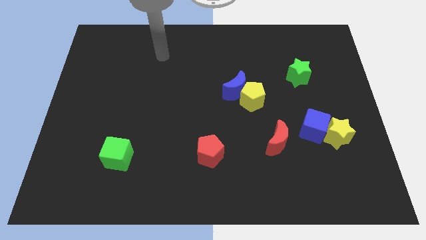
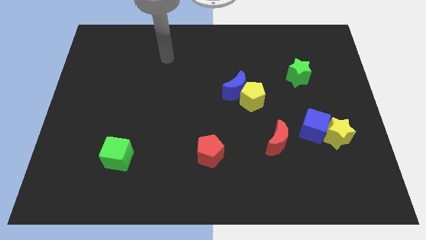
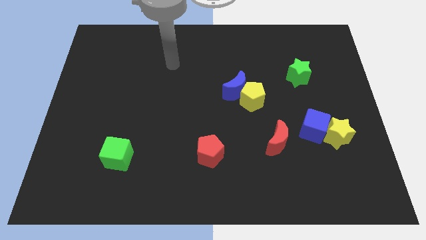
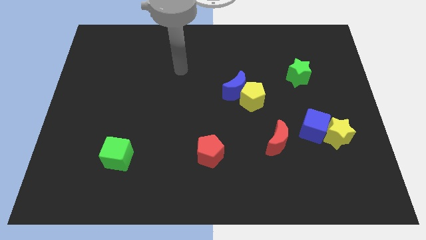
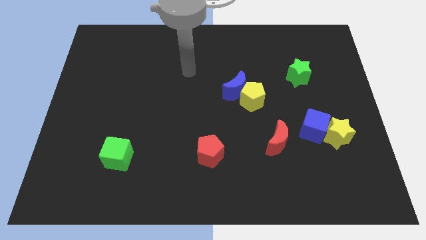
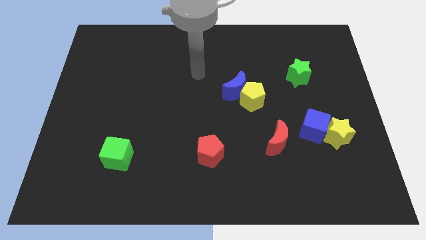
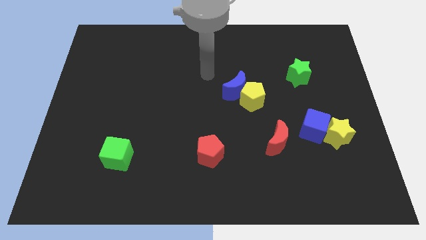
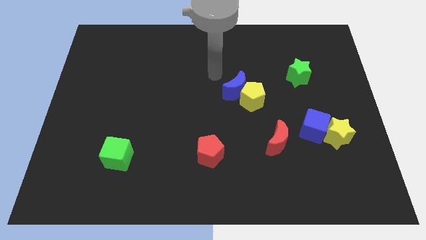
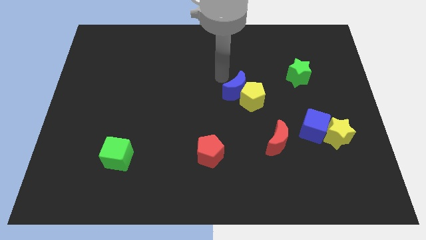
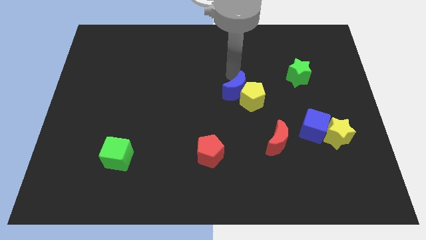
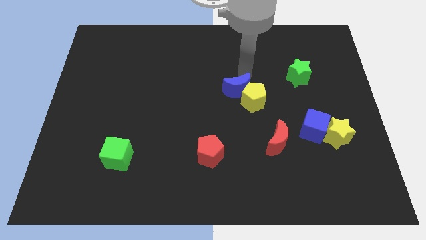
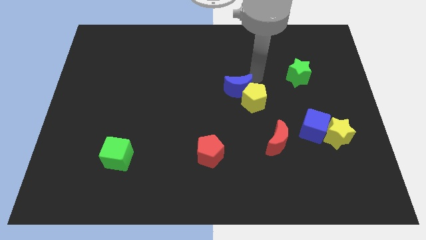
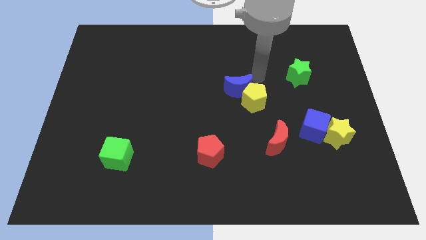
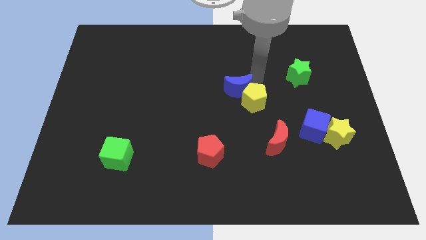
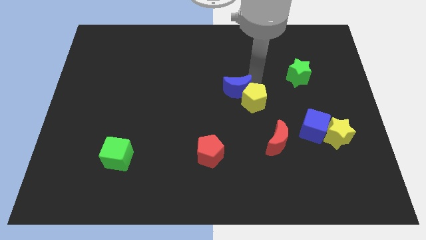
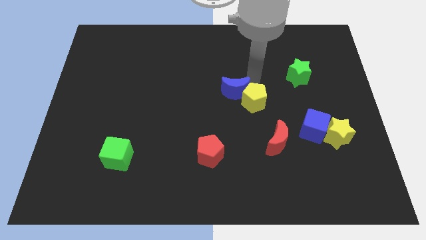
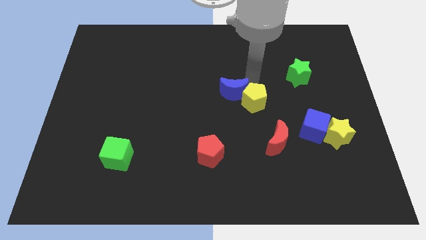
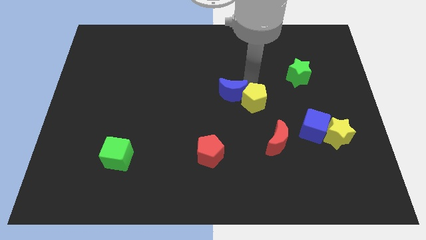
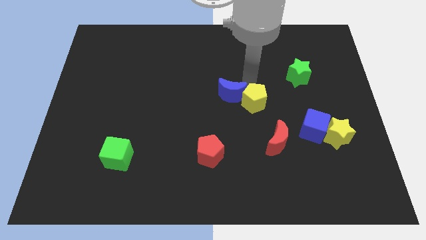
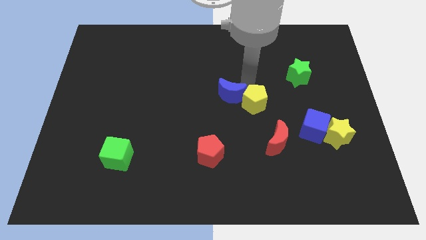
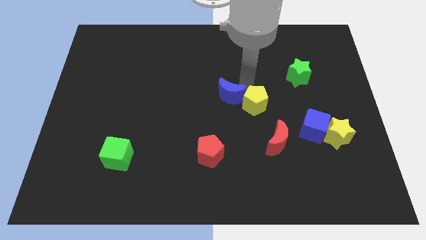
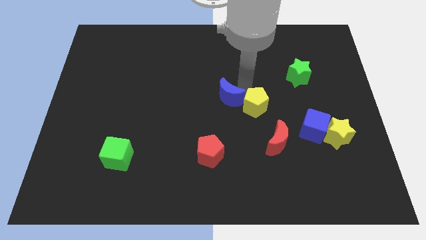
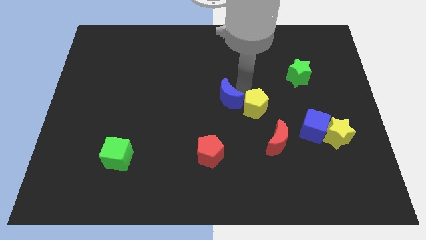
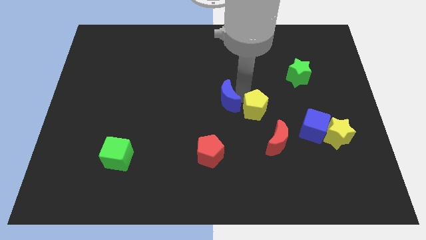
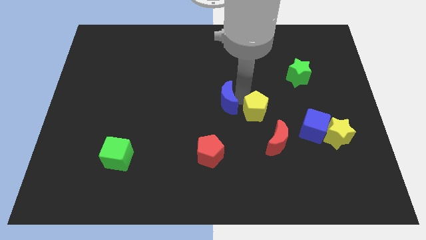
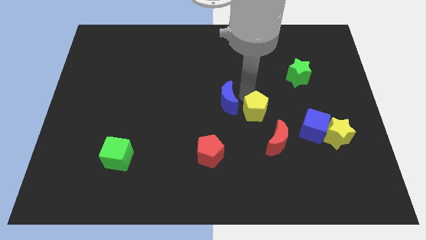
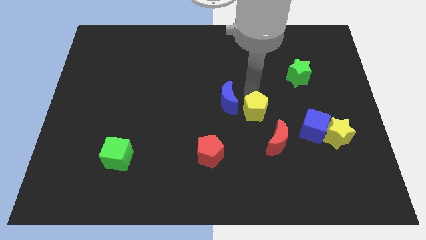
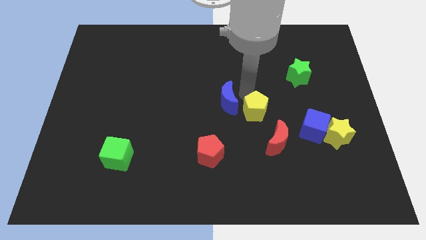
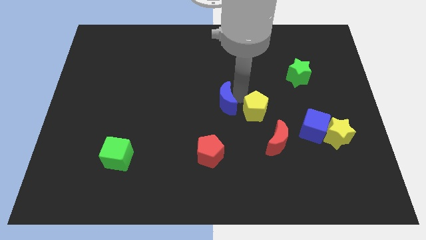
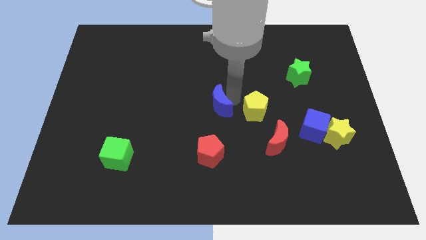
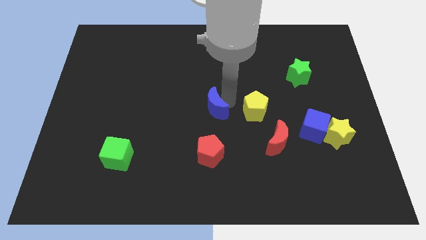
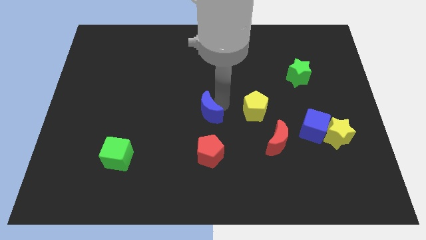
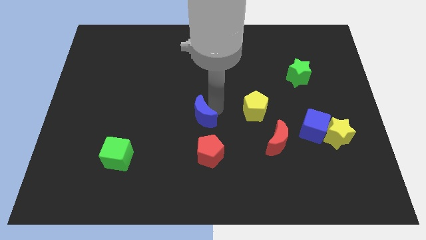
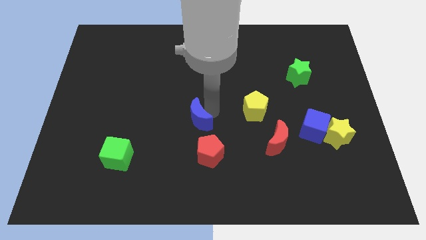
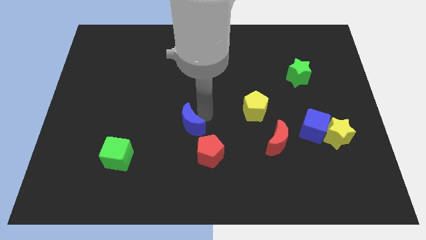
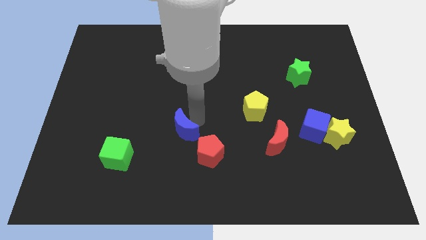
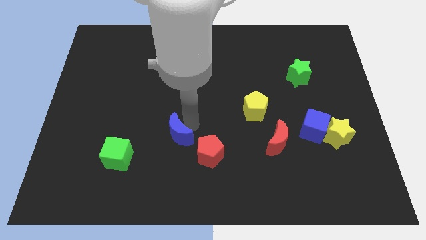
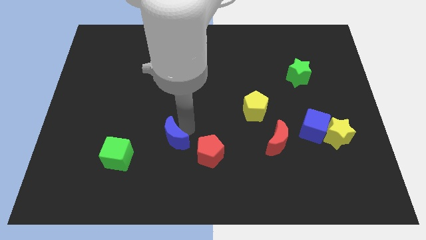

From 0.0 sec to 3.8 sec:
move the blue moon down and then to the left

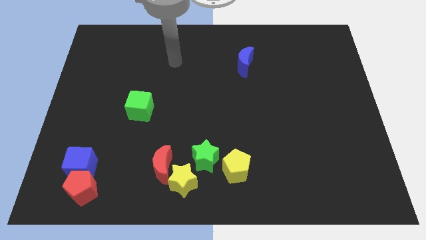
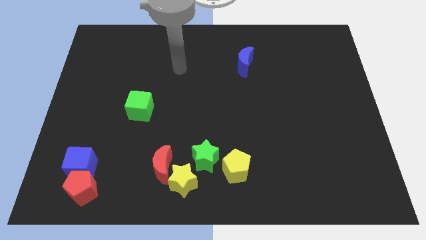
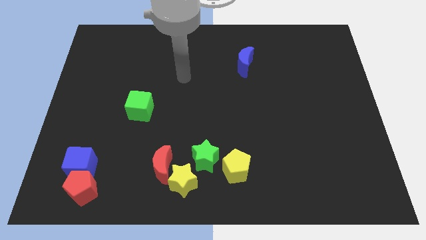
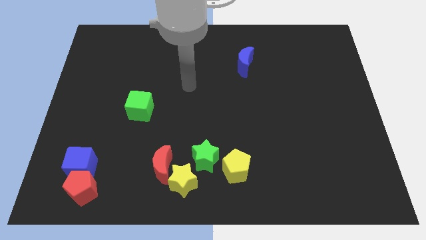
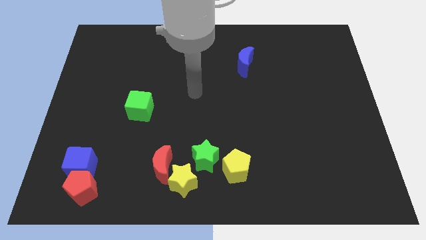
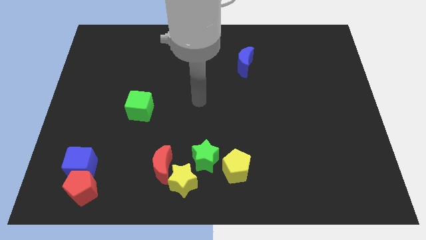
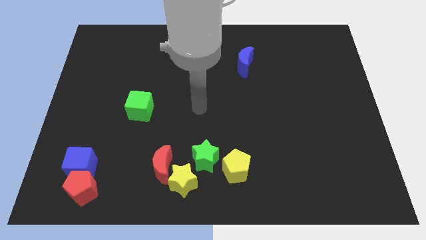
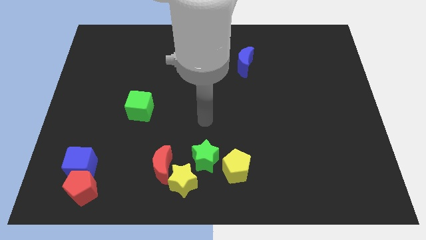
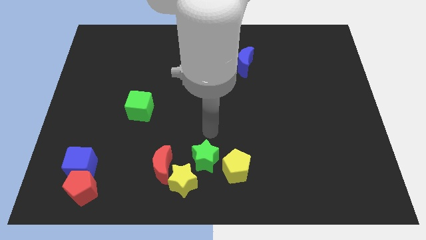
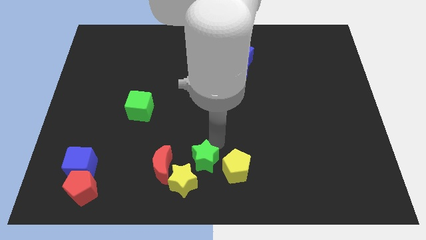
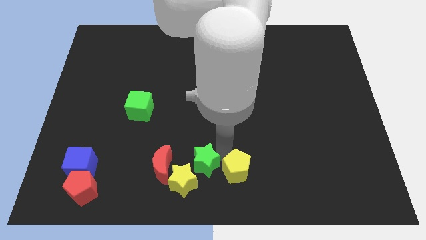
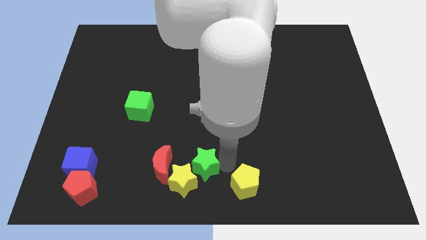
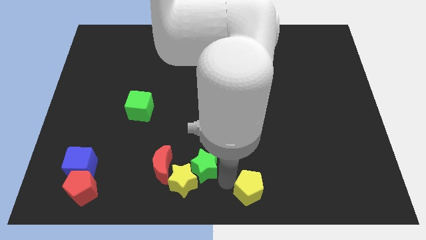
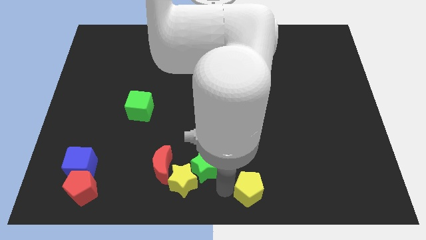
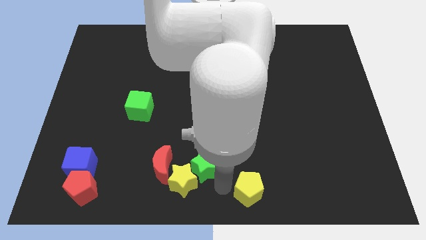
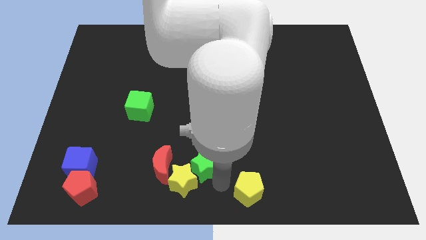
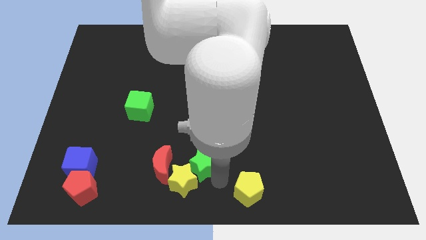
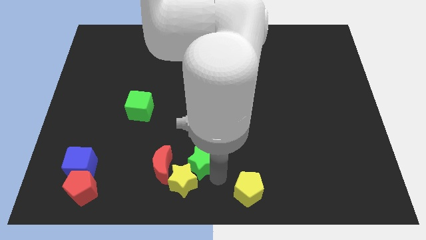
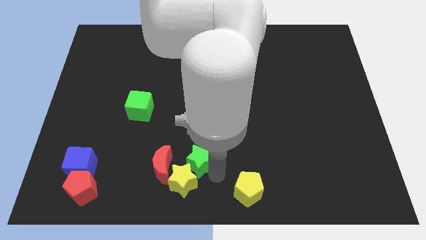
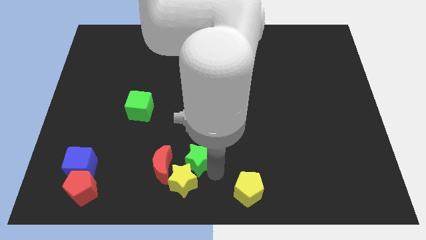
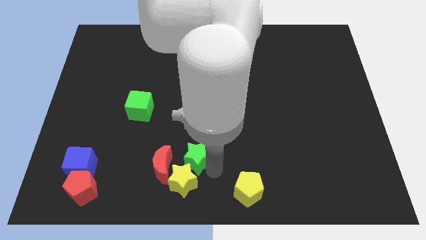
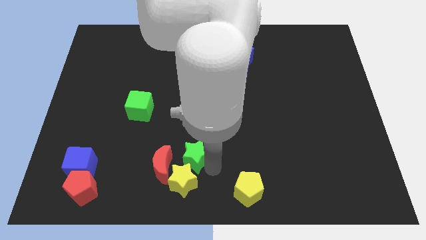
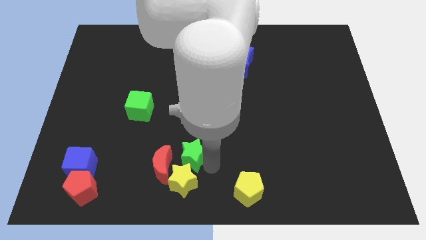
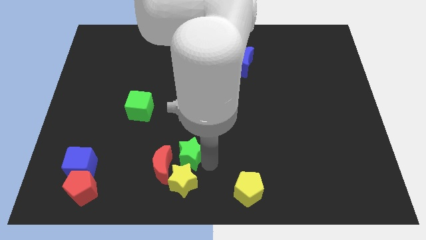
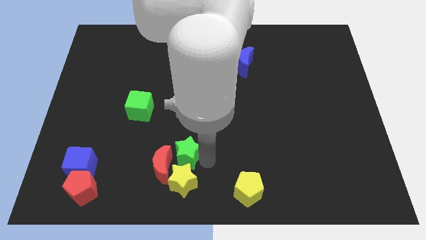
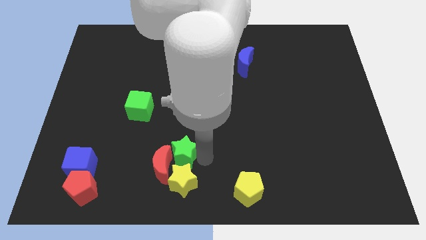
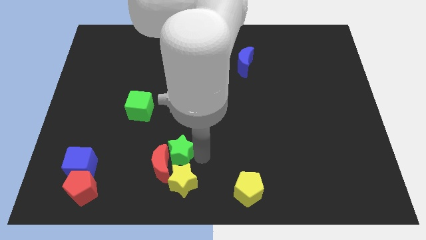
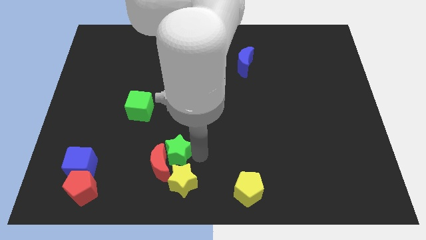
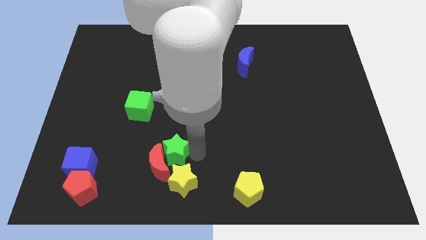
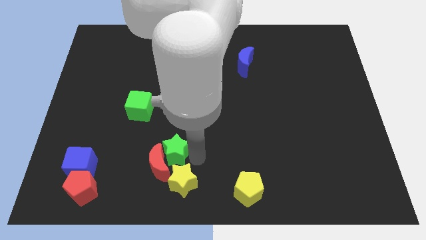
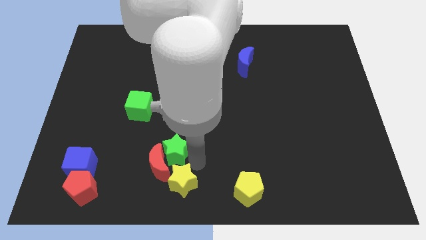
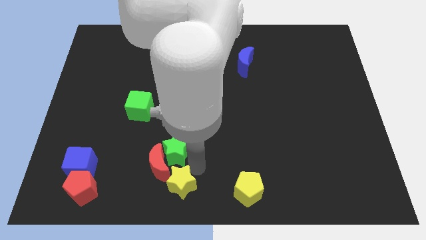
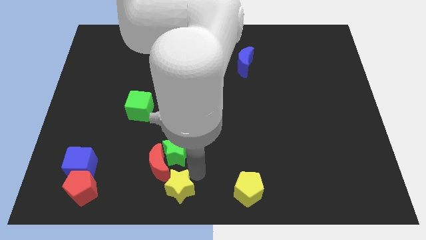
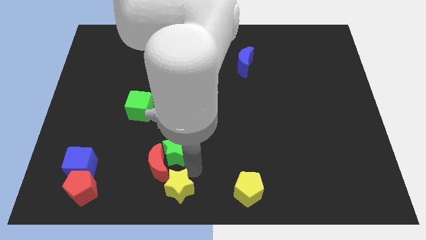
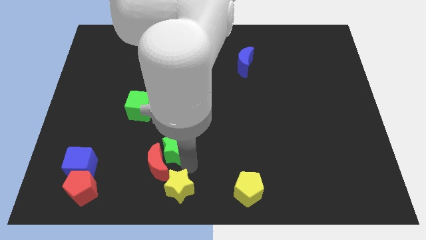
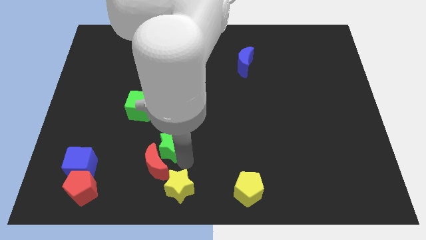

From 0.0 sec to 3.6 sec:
slide the green star a bit left
